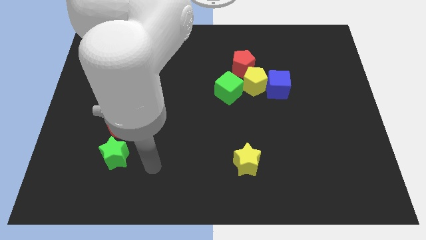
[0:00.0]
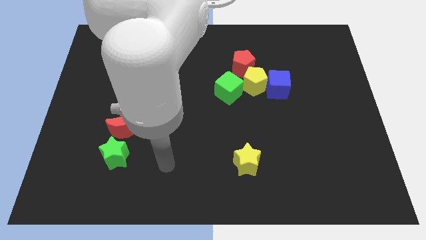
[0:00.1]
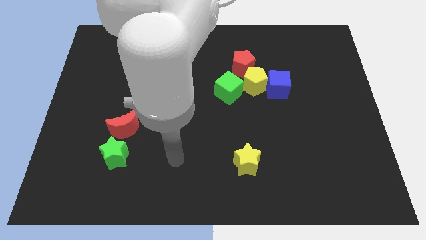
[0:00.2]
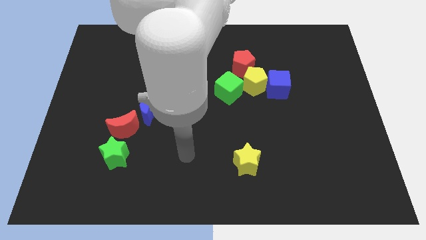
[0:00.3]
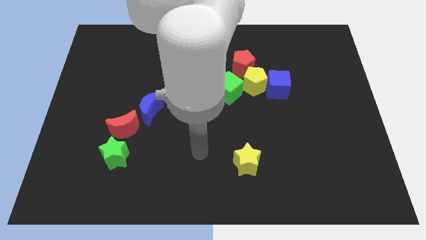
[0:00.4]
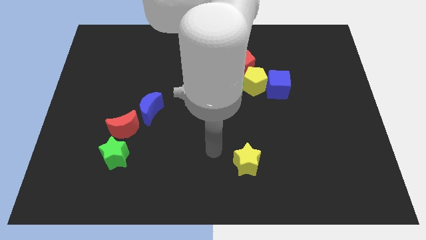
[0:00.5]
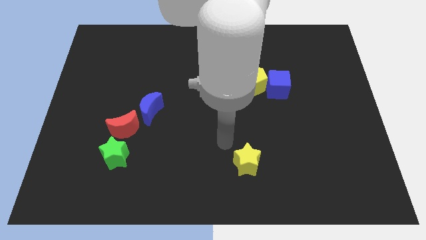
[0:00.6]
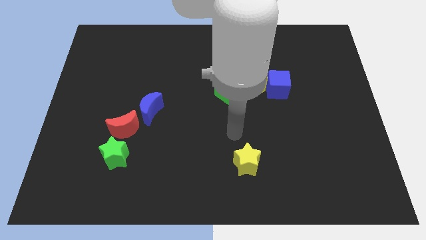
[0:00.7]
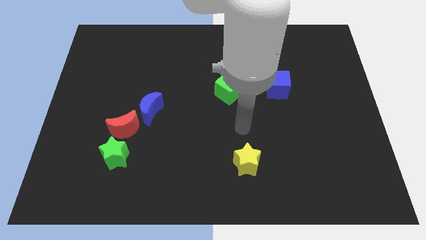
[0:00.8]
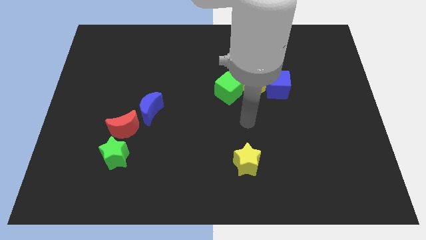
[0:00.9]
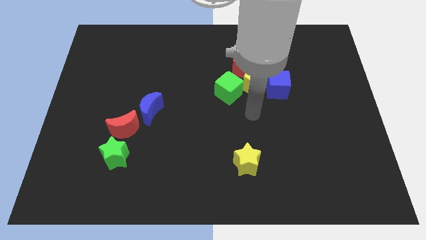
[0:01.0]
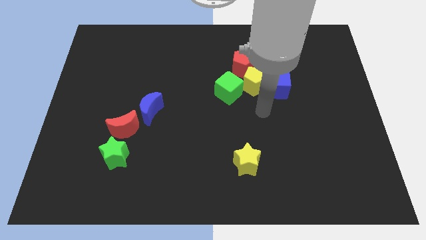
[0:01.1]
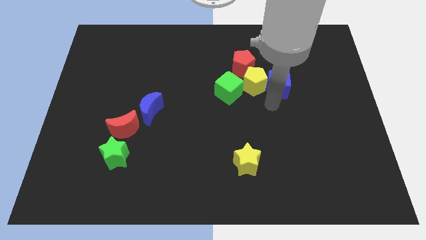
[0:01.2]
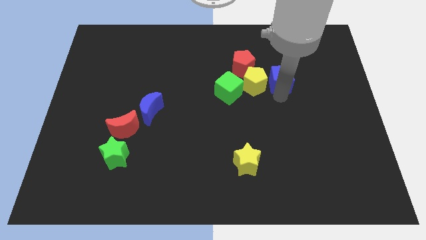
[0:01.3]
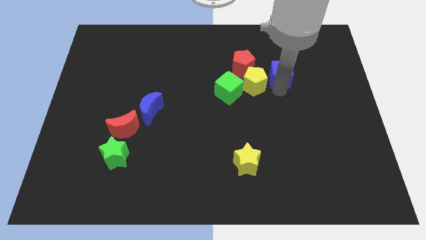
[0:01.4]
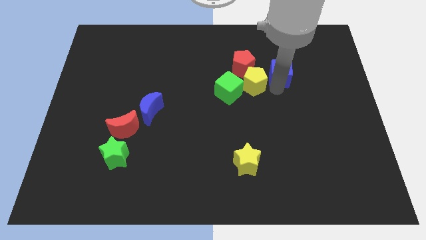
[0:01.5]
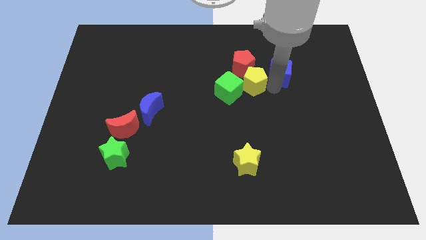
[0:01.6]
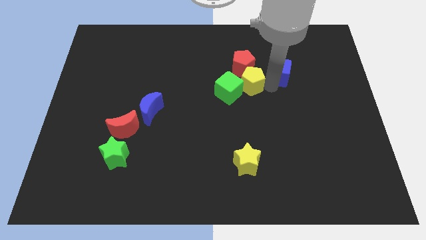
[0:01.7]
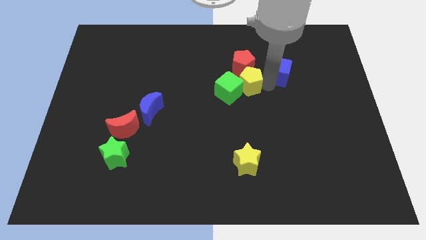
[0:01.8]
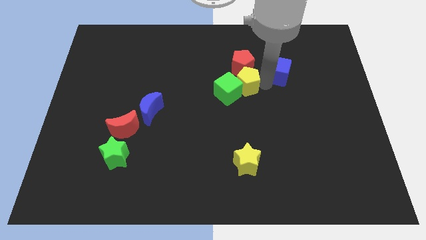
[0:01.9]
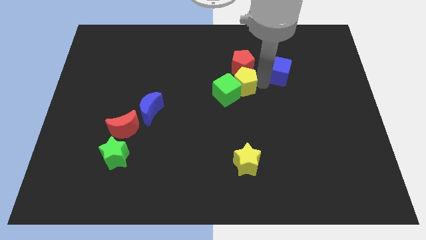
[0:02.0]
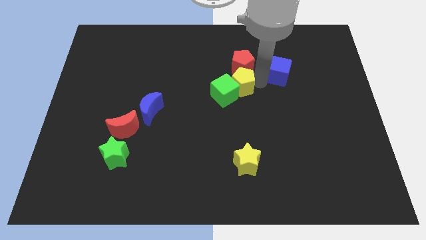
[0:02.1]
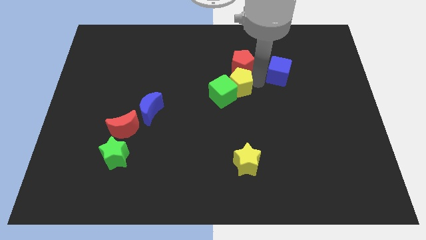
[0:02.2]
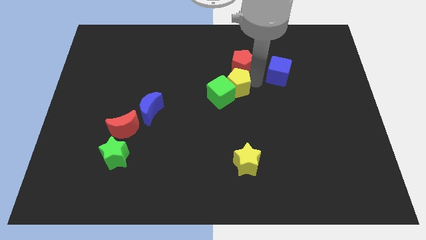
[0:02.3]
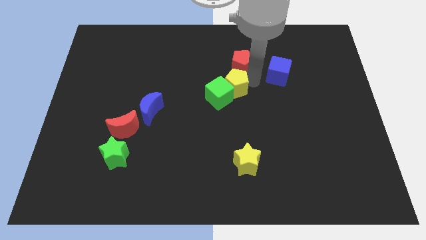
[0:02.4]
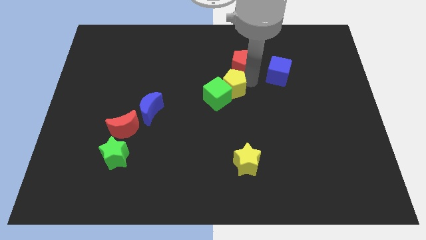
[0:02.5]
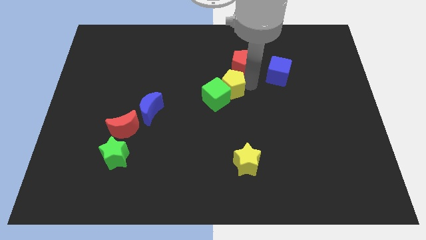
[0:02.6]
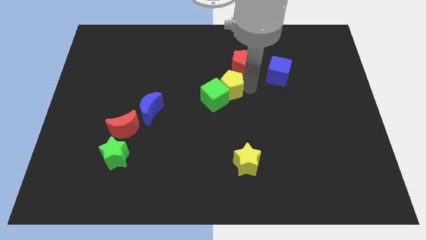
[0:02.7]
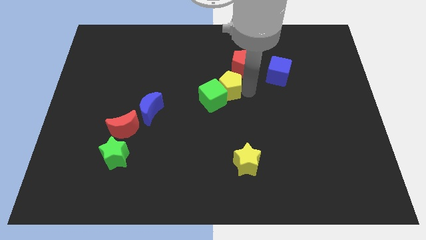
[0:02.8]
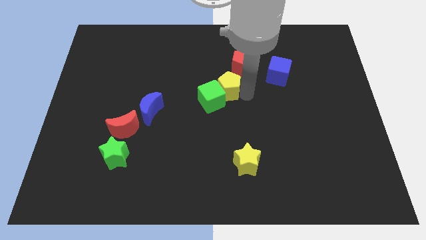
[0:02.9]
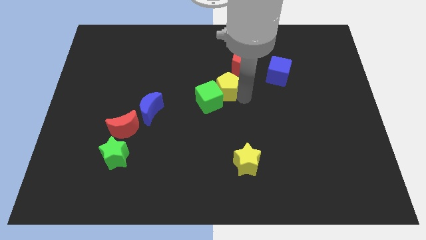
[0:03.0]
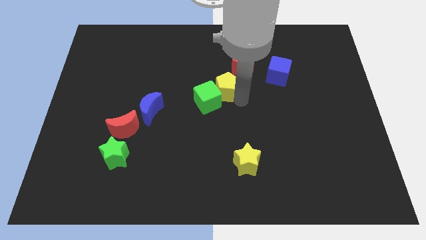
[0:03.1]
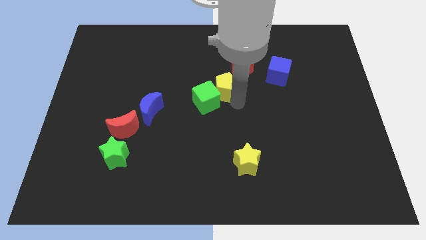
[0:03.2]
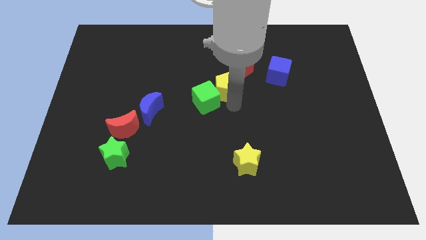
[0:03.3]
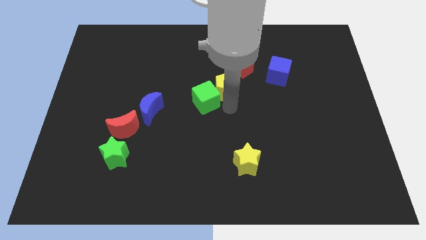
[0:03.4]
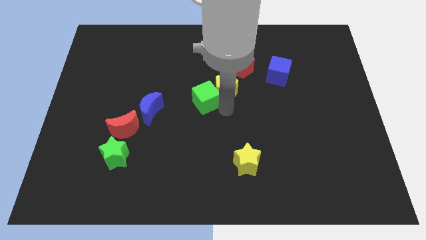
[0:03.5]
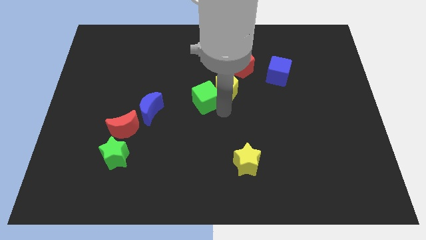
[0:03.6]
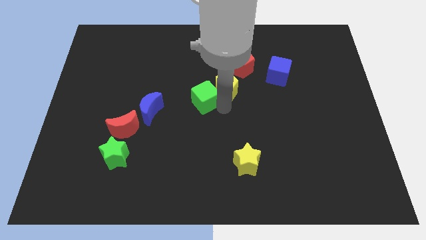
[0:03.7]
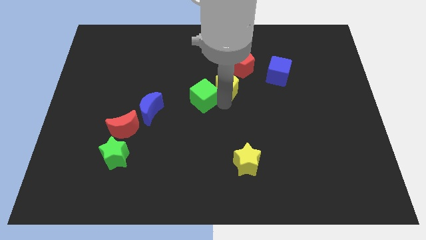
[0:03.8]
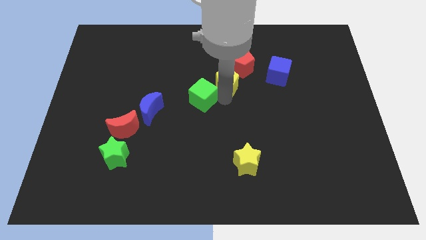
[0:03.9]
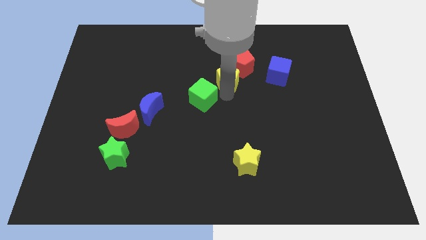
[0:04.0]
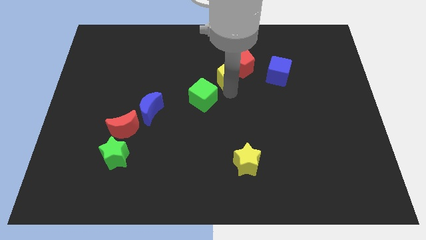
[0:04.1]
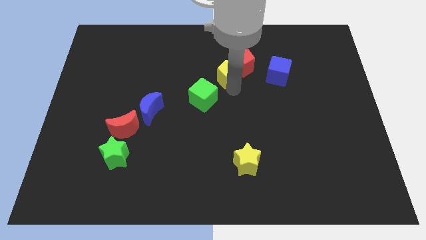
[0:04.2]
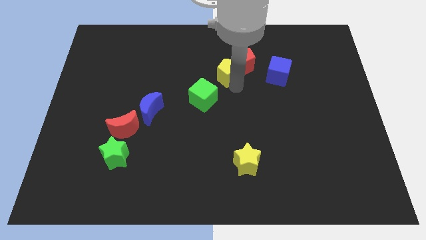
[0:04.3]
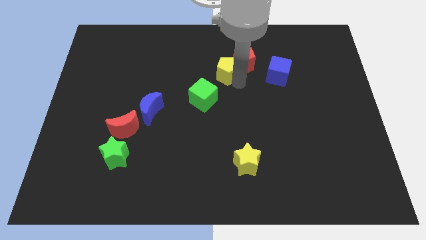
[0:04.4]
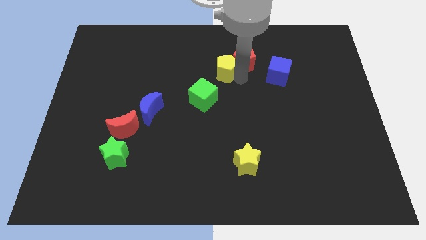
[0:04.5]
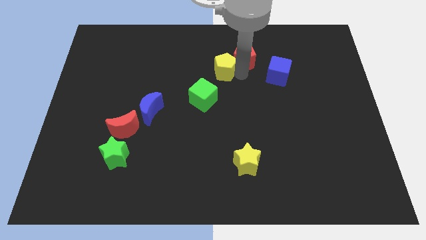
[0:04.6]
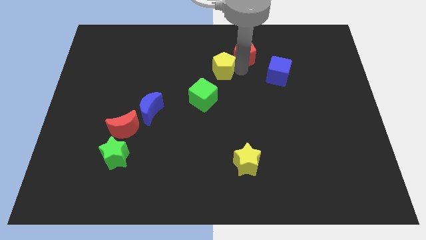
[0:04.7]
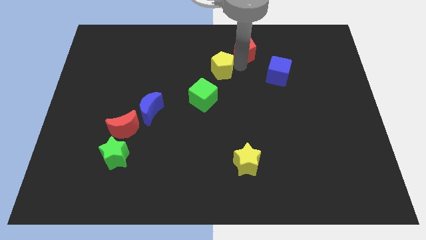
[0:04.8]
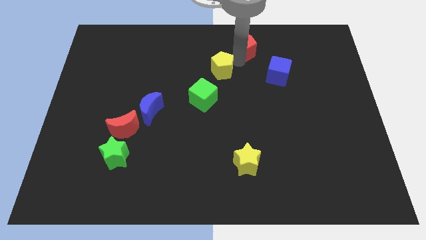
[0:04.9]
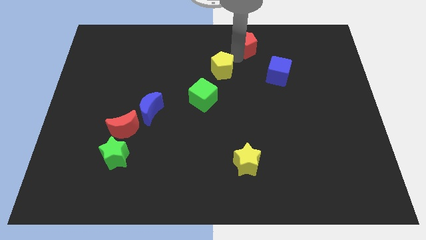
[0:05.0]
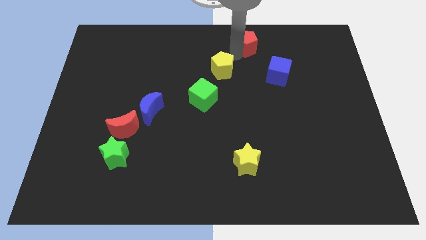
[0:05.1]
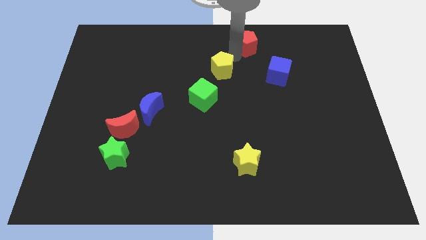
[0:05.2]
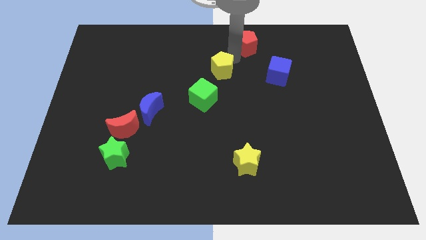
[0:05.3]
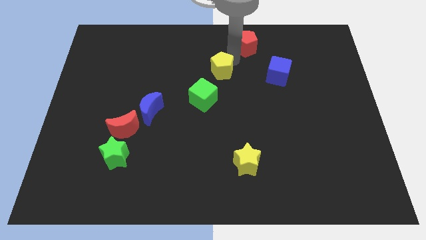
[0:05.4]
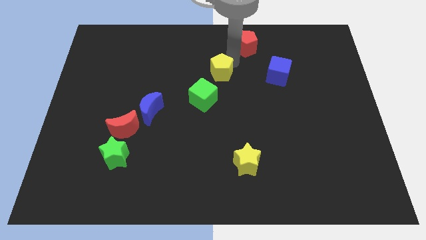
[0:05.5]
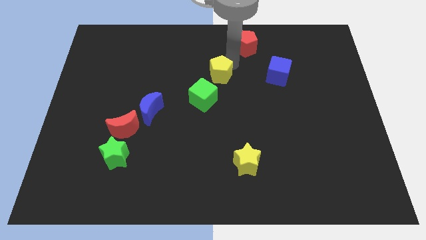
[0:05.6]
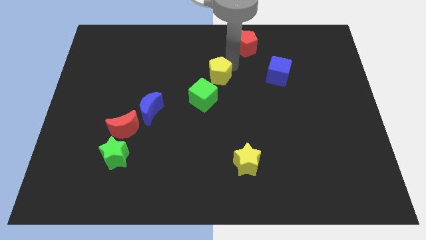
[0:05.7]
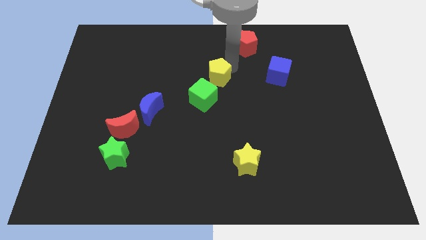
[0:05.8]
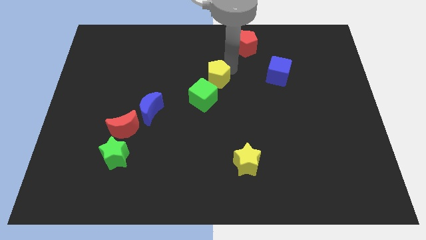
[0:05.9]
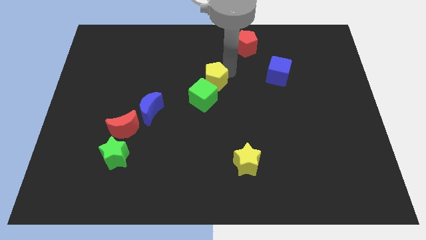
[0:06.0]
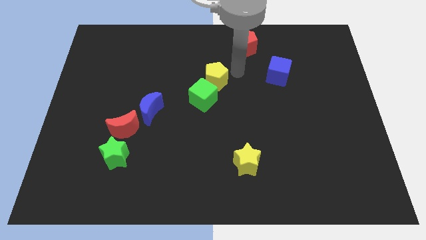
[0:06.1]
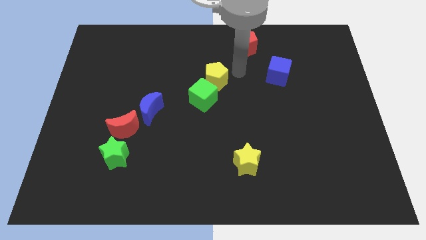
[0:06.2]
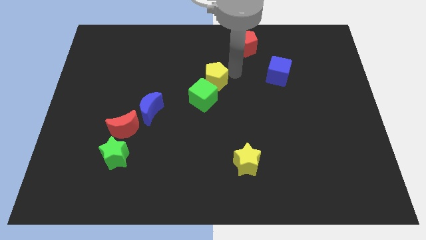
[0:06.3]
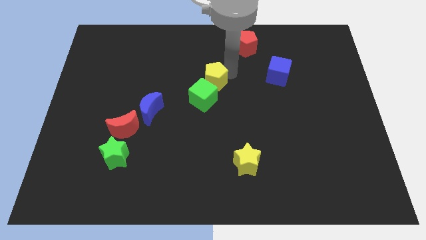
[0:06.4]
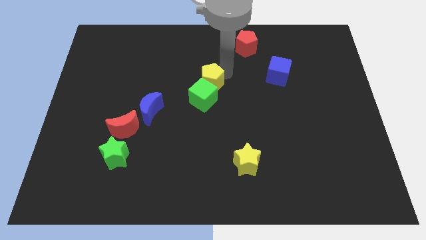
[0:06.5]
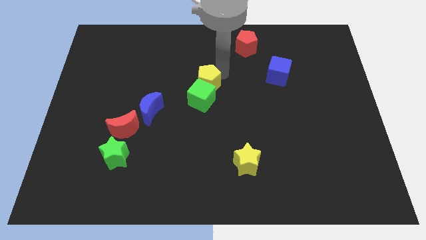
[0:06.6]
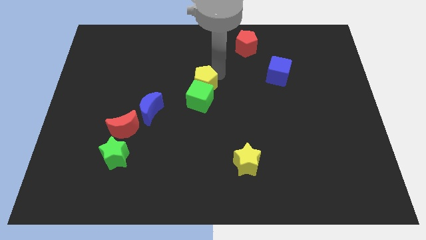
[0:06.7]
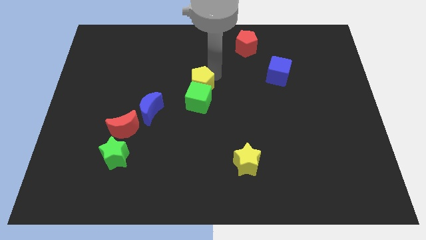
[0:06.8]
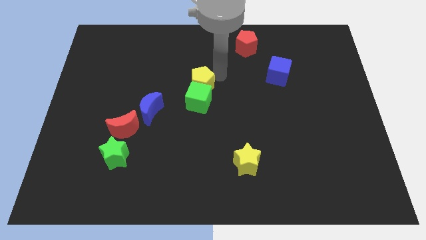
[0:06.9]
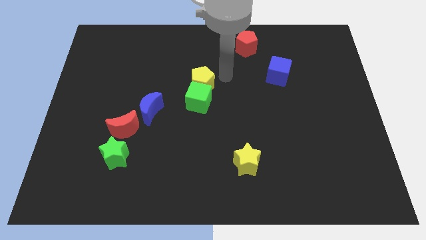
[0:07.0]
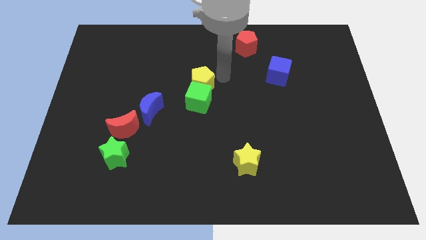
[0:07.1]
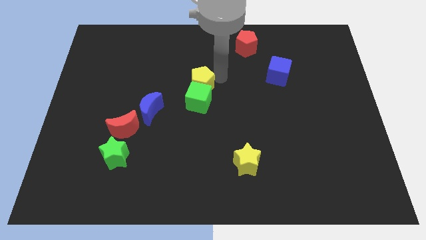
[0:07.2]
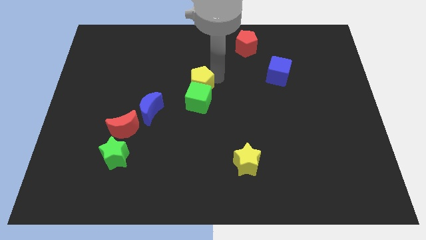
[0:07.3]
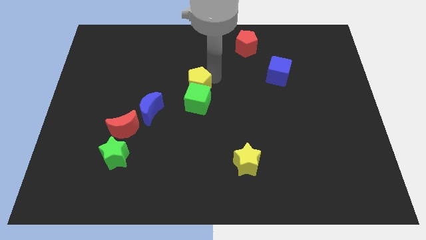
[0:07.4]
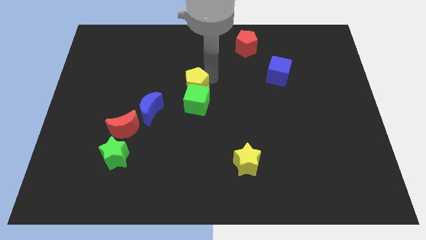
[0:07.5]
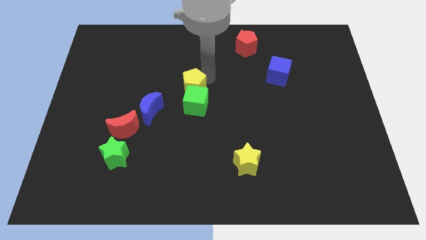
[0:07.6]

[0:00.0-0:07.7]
slide the yellow pentagon to the top right side of the blue moon
